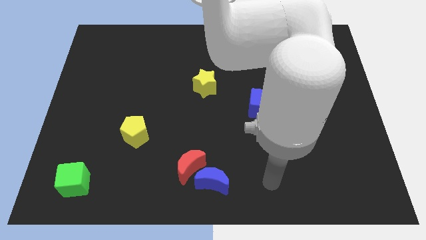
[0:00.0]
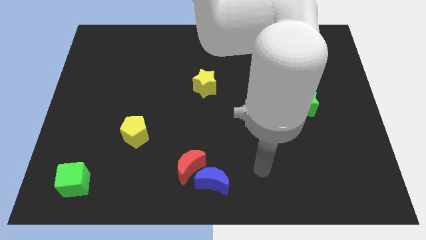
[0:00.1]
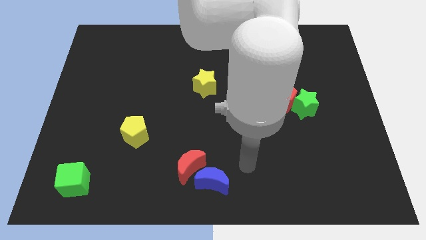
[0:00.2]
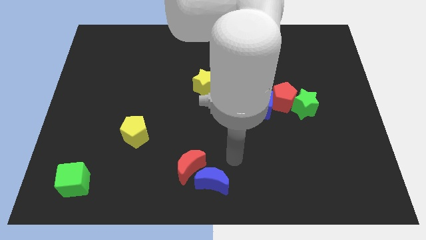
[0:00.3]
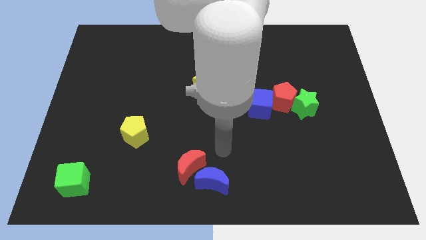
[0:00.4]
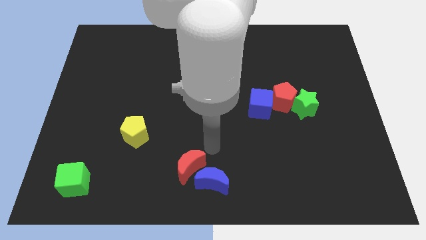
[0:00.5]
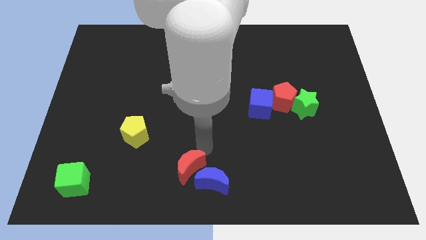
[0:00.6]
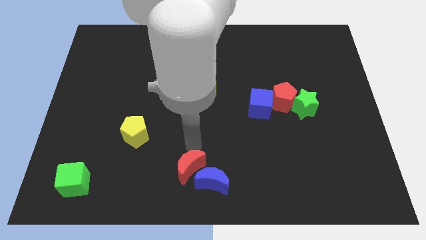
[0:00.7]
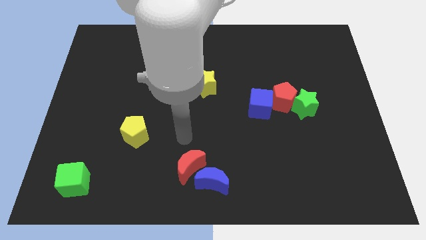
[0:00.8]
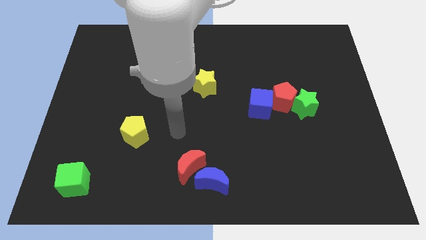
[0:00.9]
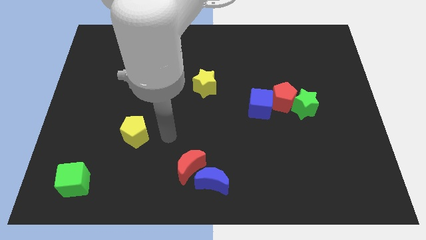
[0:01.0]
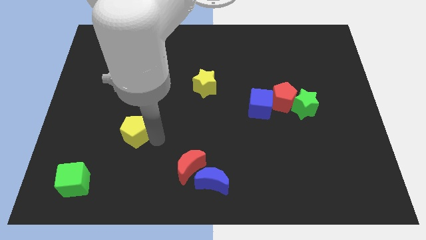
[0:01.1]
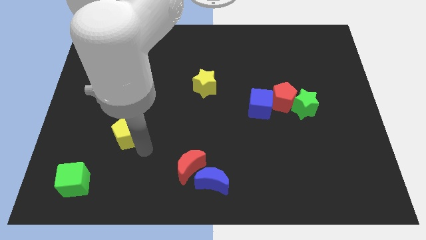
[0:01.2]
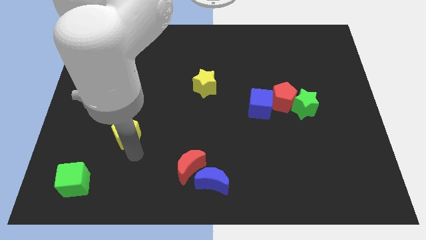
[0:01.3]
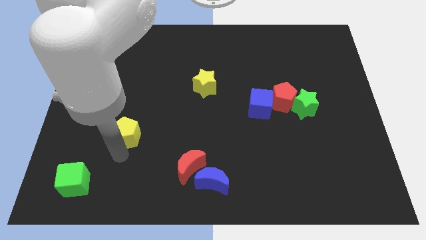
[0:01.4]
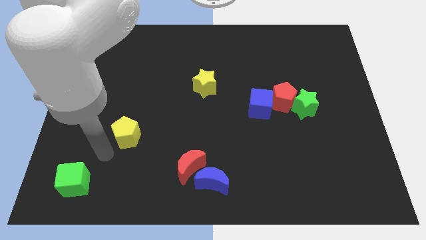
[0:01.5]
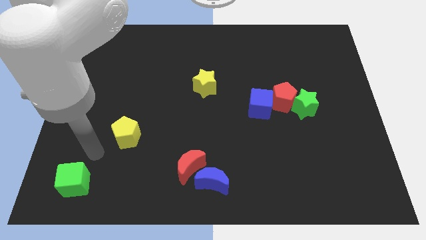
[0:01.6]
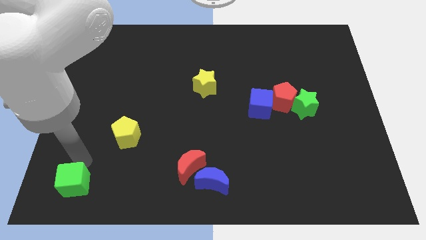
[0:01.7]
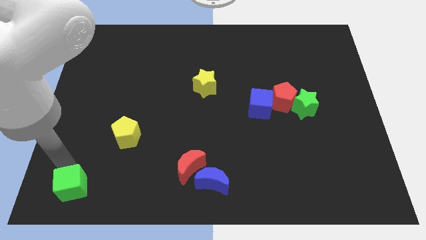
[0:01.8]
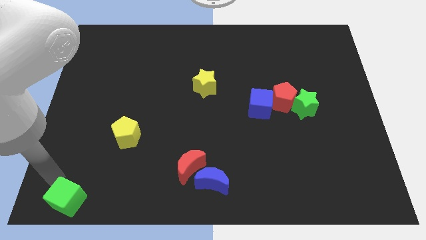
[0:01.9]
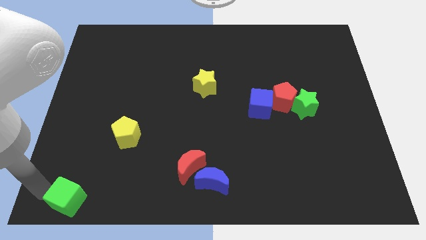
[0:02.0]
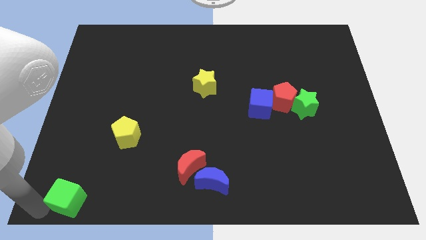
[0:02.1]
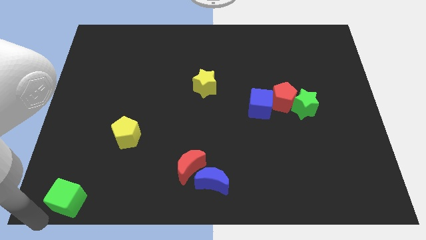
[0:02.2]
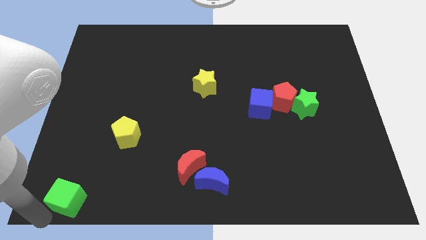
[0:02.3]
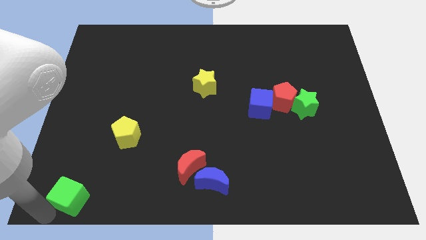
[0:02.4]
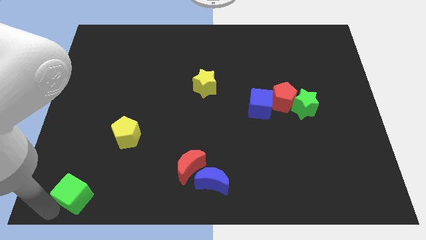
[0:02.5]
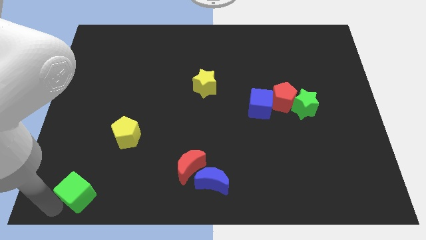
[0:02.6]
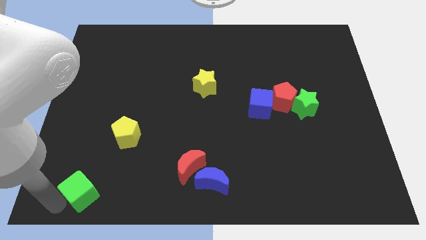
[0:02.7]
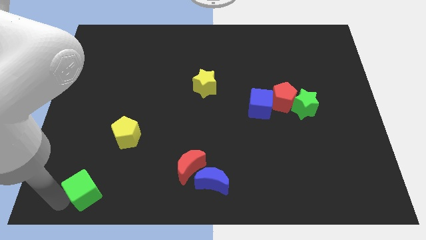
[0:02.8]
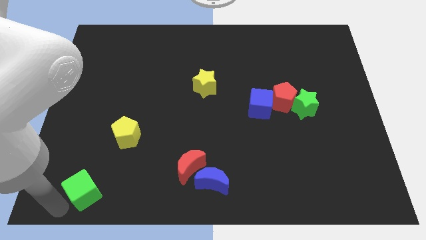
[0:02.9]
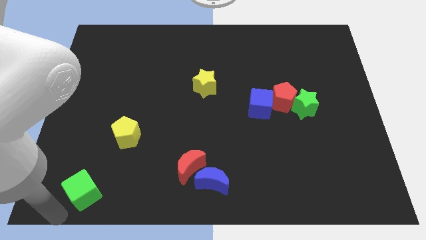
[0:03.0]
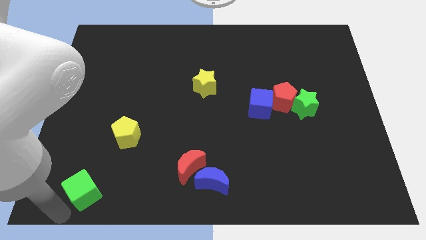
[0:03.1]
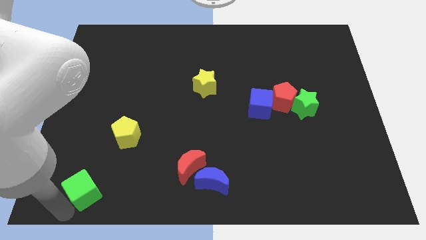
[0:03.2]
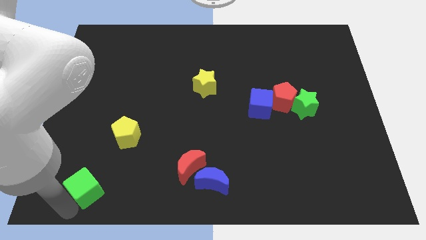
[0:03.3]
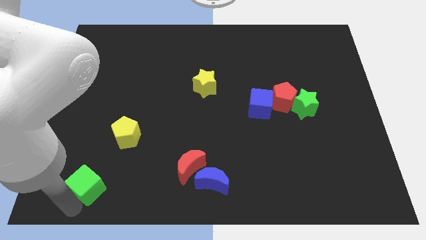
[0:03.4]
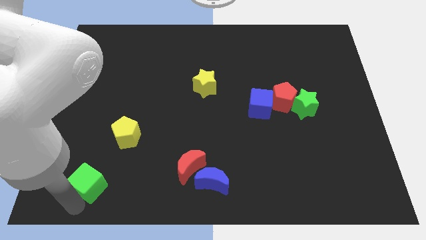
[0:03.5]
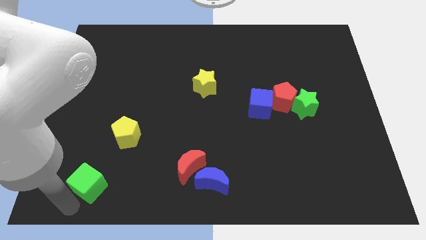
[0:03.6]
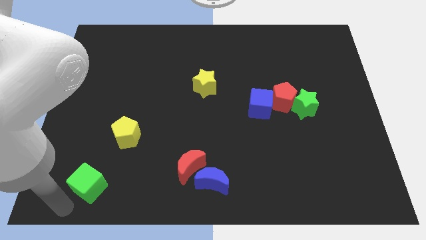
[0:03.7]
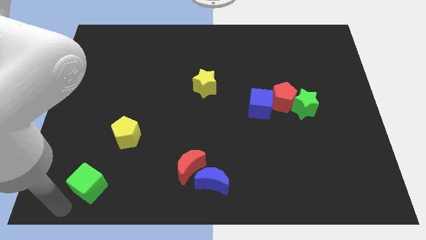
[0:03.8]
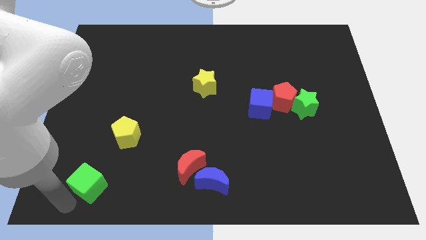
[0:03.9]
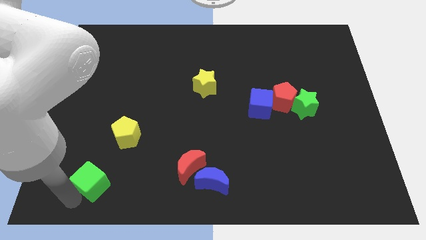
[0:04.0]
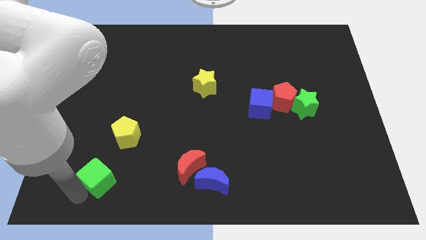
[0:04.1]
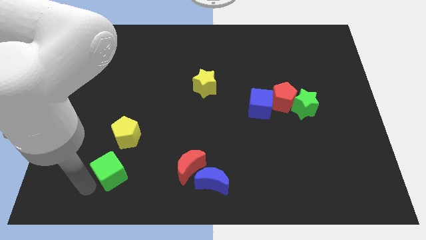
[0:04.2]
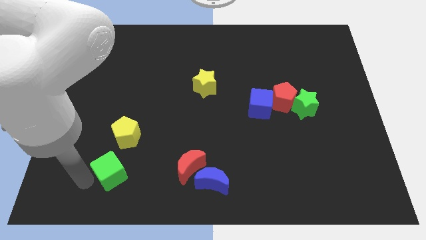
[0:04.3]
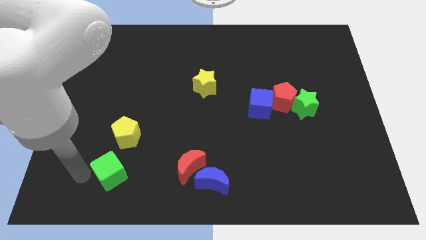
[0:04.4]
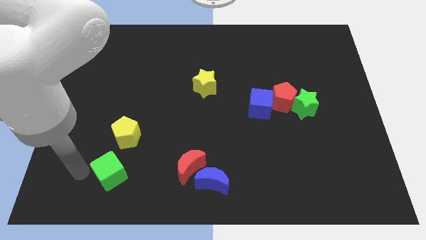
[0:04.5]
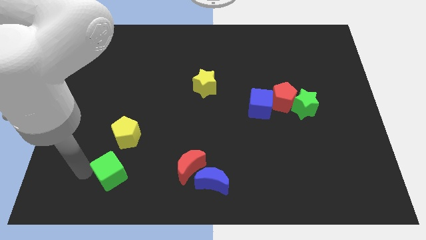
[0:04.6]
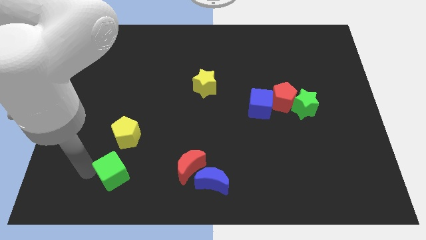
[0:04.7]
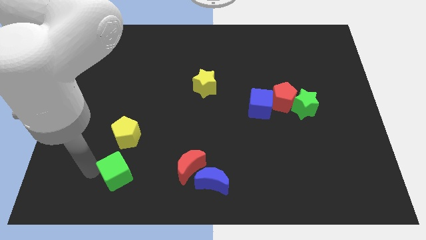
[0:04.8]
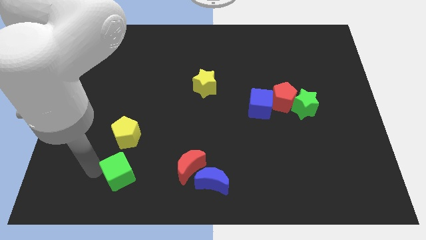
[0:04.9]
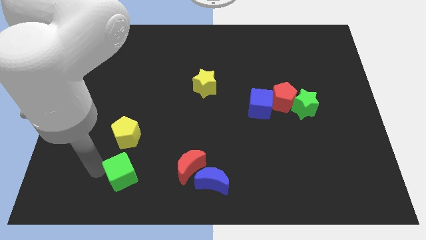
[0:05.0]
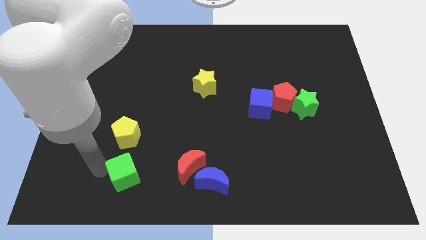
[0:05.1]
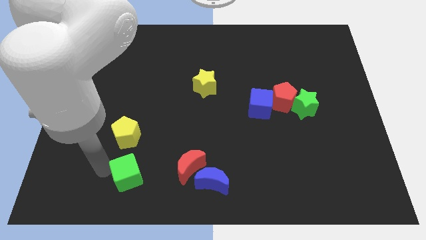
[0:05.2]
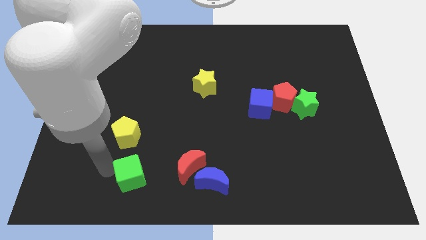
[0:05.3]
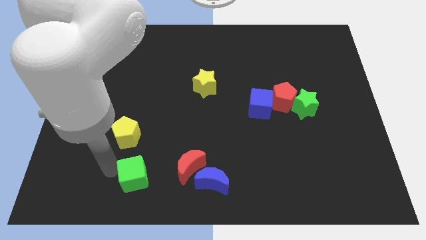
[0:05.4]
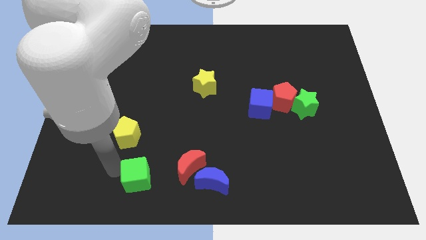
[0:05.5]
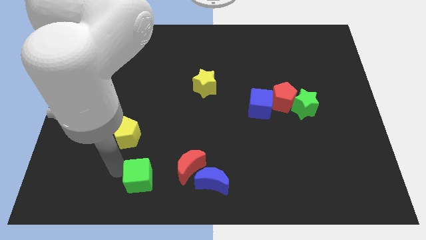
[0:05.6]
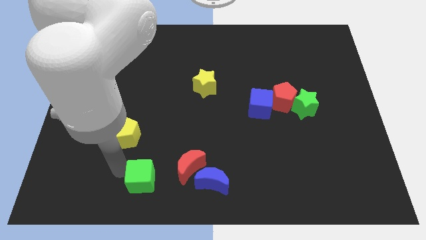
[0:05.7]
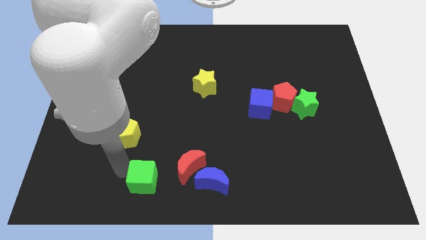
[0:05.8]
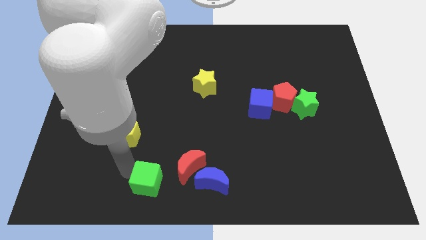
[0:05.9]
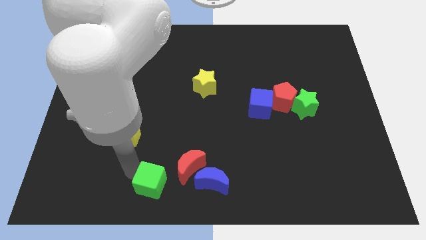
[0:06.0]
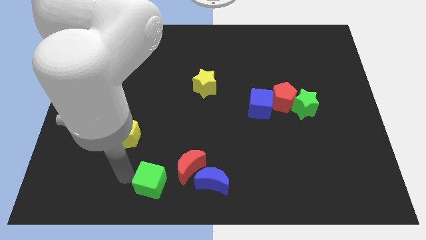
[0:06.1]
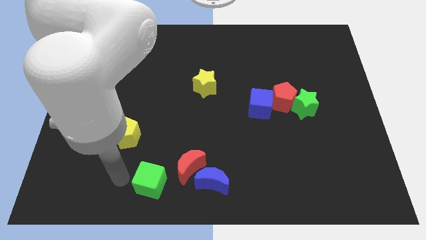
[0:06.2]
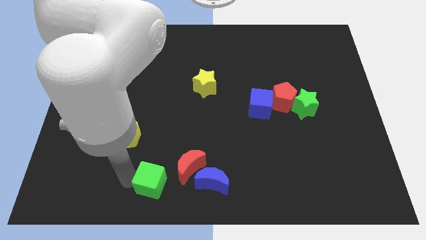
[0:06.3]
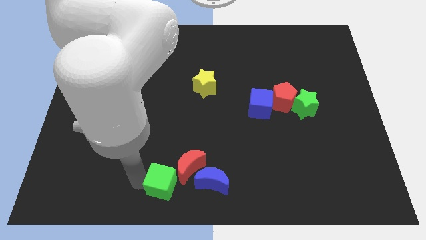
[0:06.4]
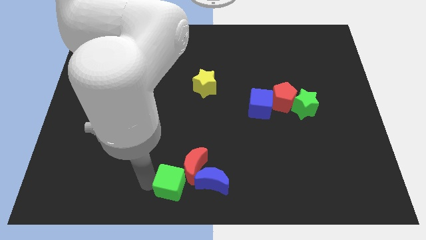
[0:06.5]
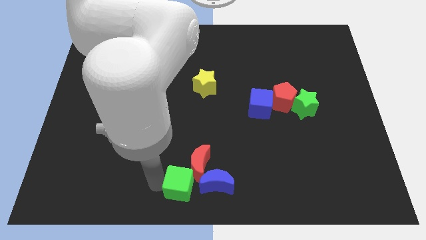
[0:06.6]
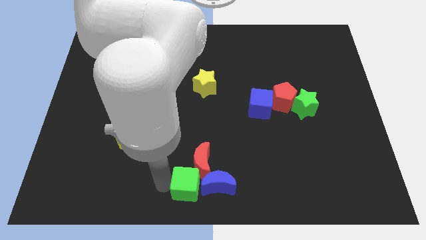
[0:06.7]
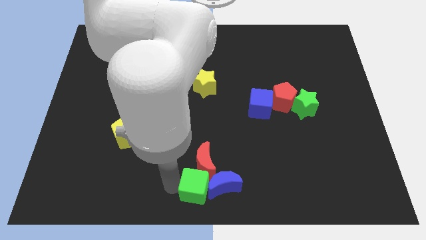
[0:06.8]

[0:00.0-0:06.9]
push the green cube close to the blue moon
